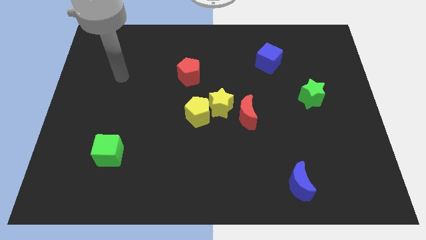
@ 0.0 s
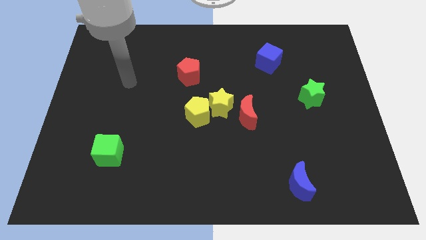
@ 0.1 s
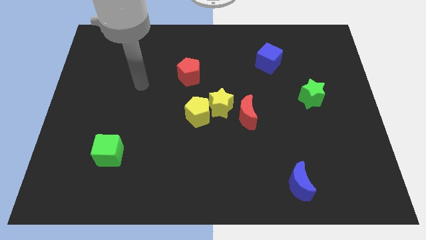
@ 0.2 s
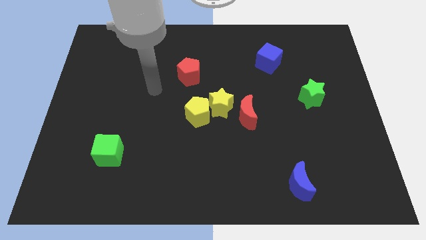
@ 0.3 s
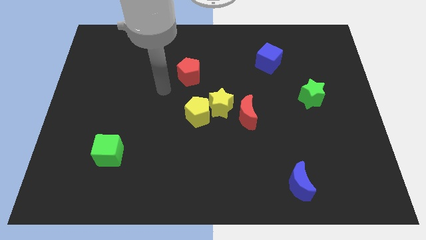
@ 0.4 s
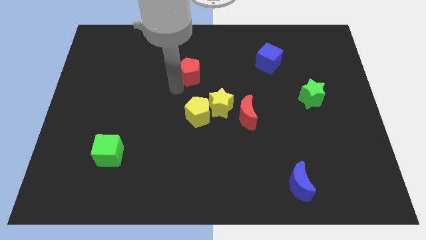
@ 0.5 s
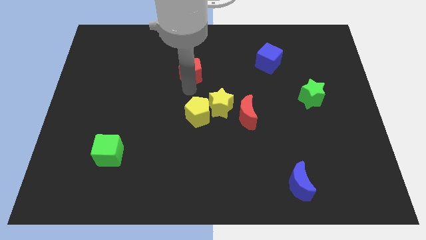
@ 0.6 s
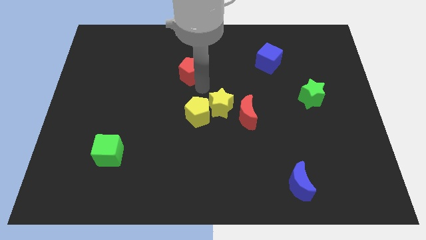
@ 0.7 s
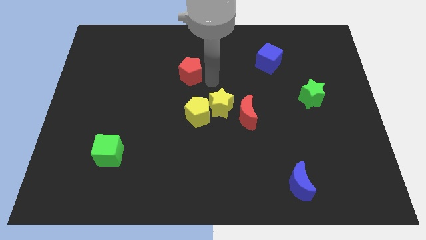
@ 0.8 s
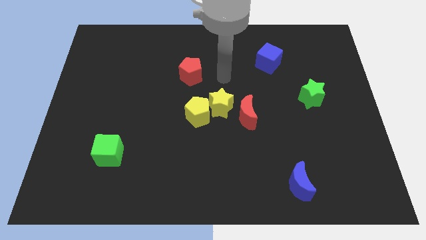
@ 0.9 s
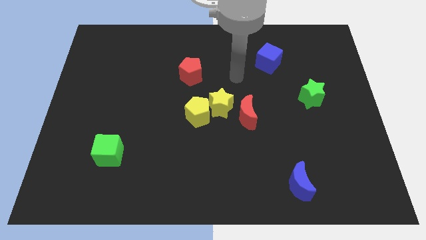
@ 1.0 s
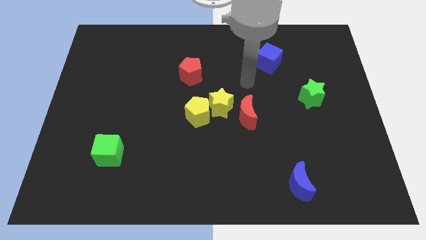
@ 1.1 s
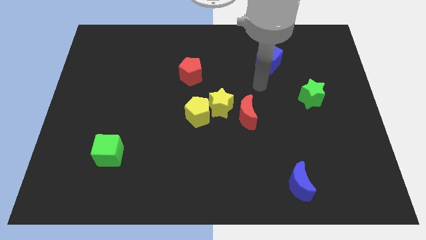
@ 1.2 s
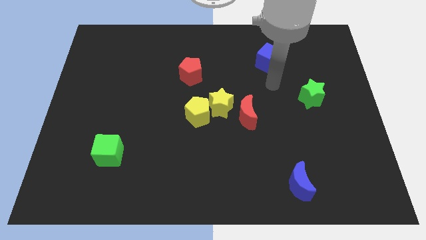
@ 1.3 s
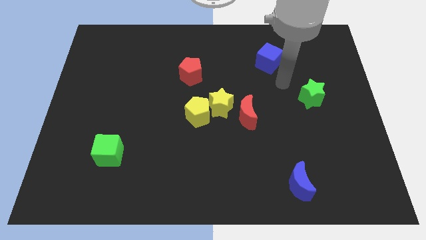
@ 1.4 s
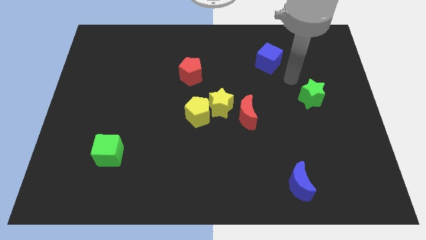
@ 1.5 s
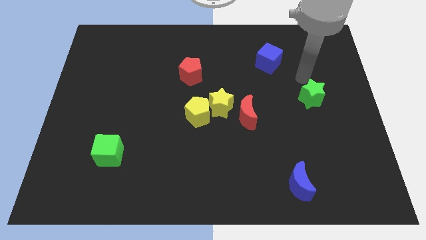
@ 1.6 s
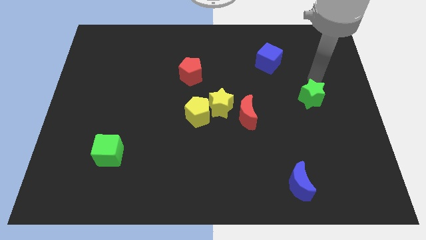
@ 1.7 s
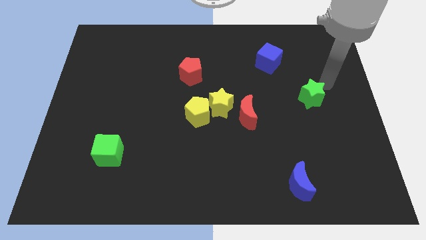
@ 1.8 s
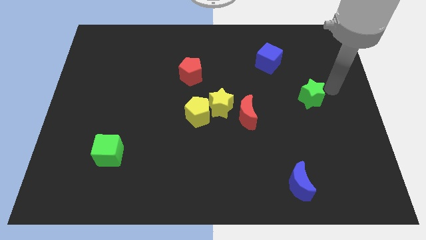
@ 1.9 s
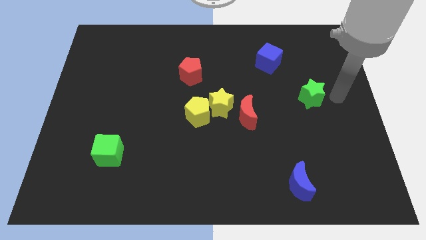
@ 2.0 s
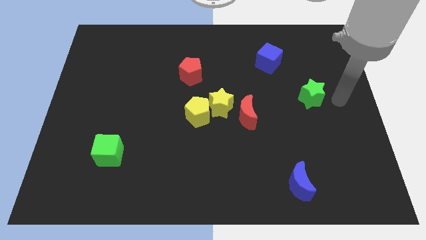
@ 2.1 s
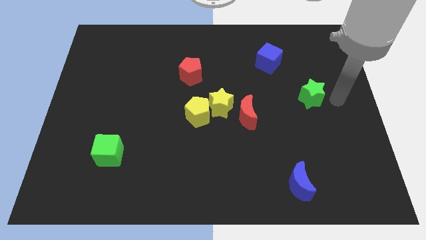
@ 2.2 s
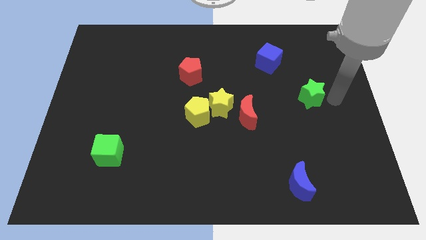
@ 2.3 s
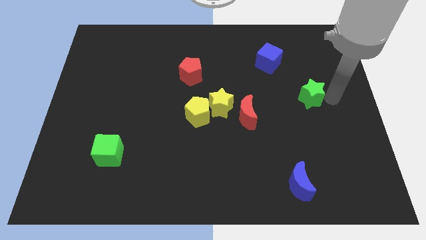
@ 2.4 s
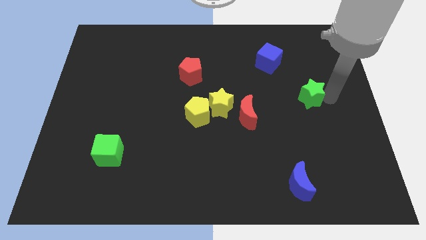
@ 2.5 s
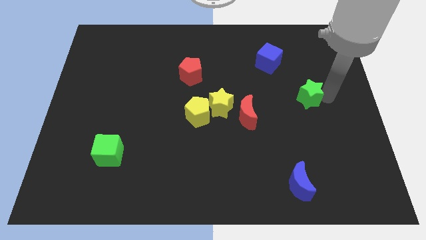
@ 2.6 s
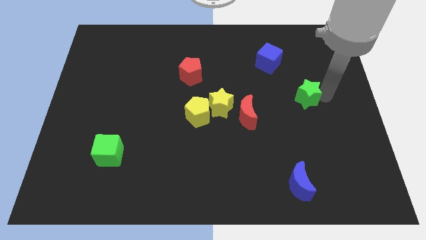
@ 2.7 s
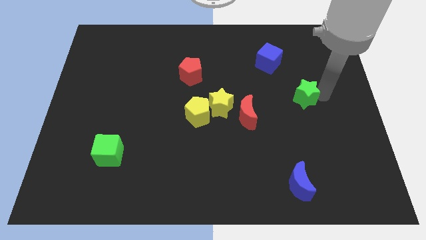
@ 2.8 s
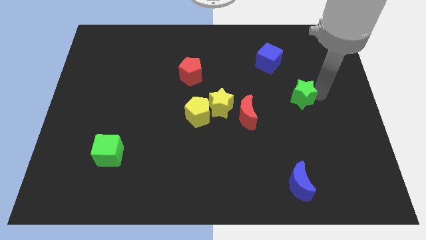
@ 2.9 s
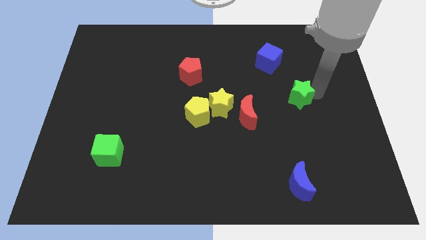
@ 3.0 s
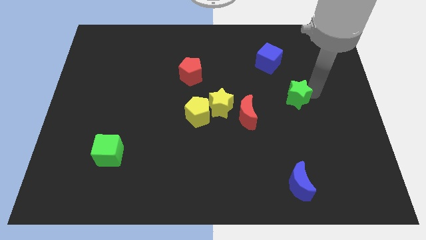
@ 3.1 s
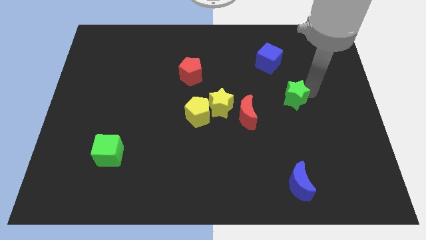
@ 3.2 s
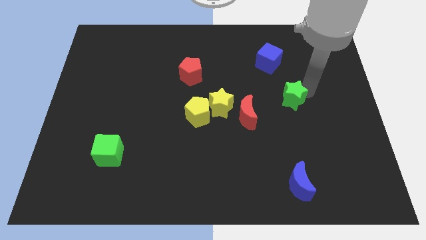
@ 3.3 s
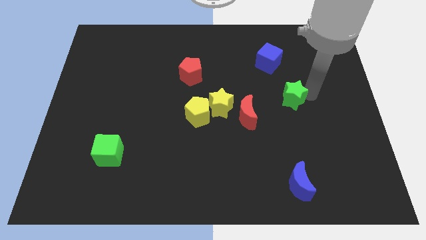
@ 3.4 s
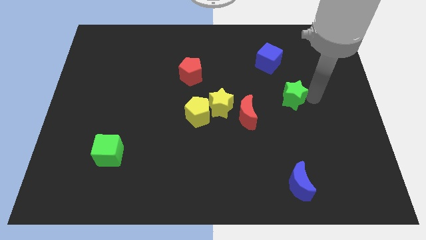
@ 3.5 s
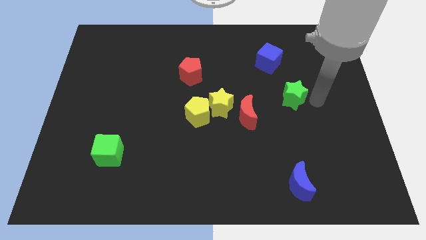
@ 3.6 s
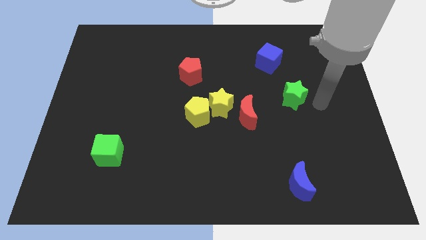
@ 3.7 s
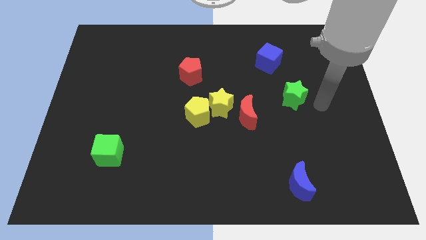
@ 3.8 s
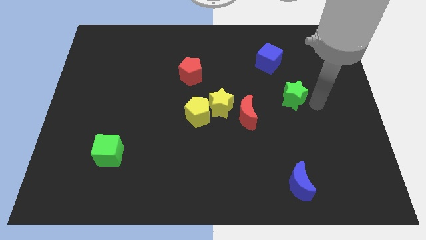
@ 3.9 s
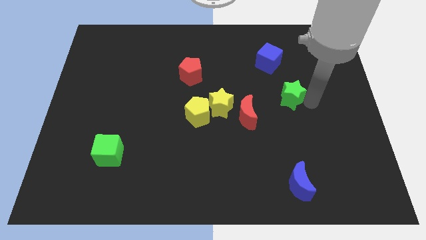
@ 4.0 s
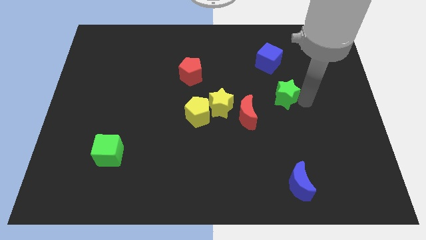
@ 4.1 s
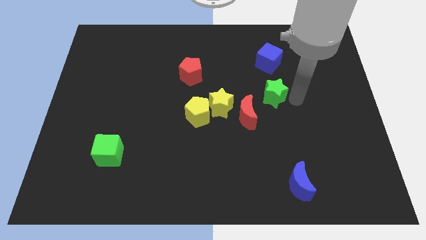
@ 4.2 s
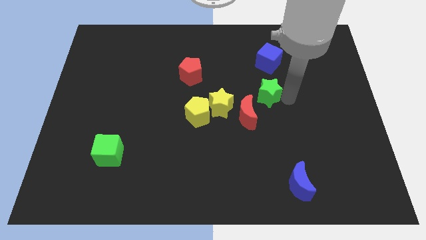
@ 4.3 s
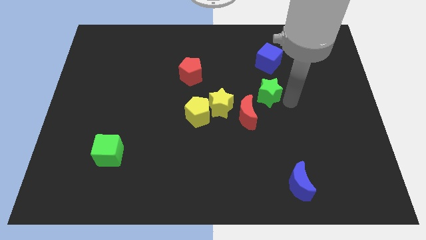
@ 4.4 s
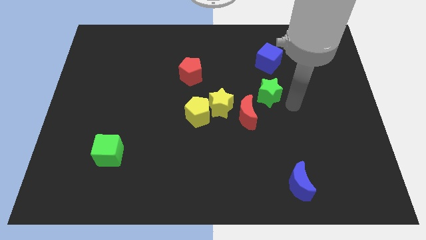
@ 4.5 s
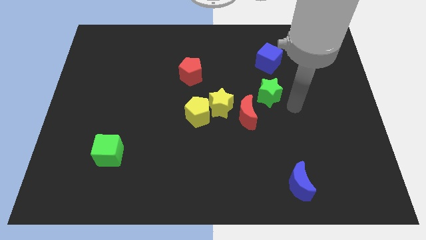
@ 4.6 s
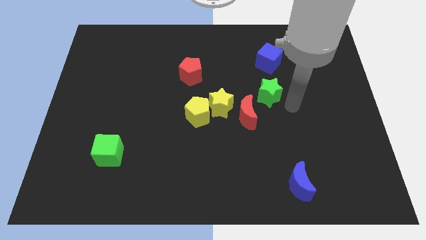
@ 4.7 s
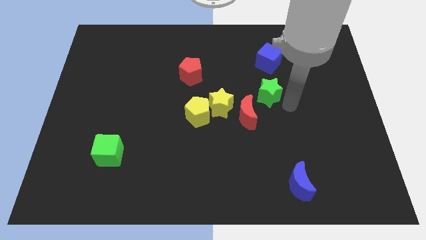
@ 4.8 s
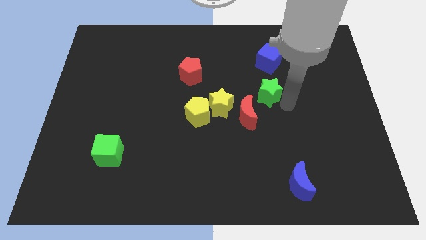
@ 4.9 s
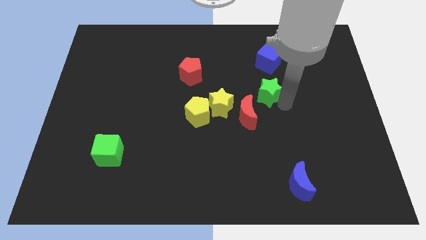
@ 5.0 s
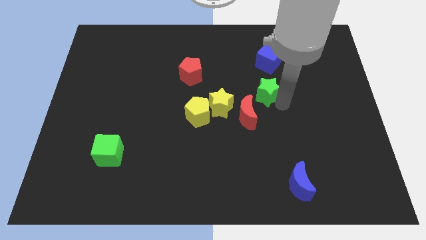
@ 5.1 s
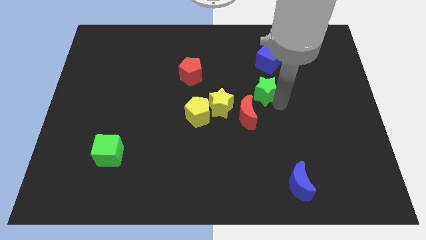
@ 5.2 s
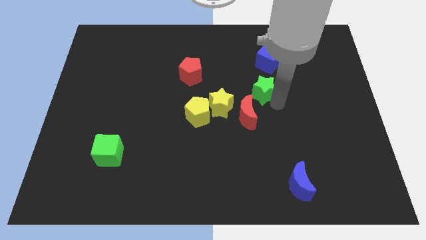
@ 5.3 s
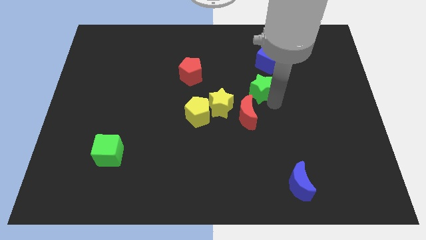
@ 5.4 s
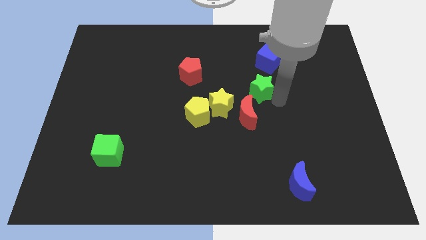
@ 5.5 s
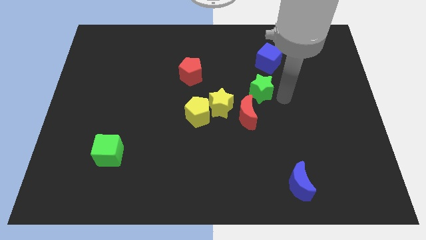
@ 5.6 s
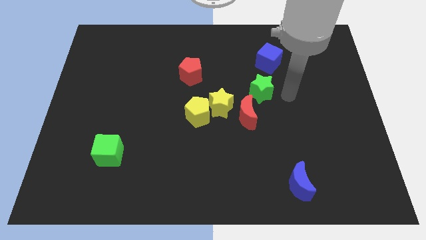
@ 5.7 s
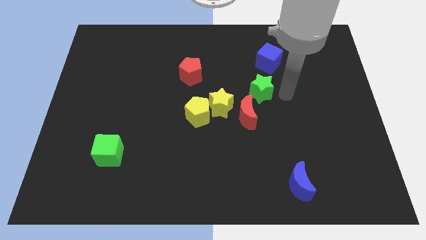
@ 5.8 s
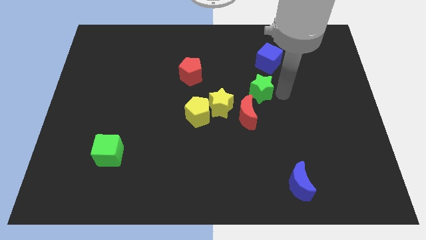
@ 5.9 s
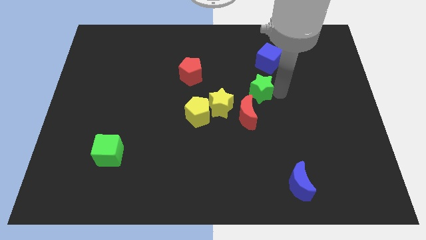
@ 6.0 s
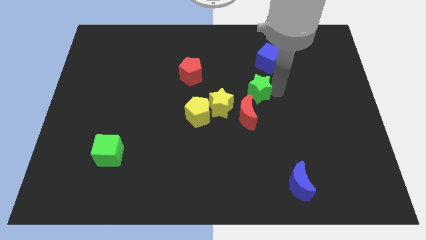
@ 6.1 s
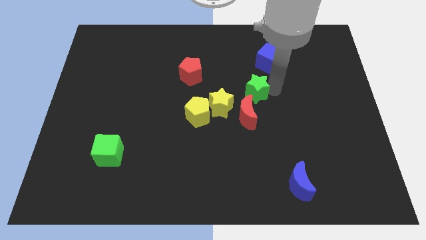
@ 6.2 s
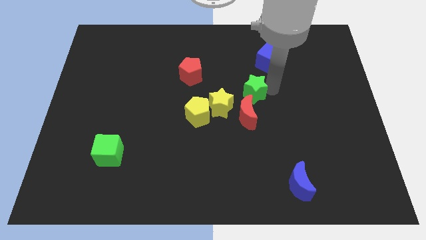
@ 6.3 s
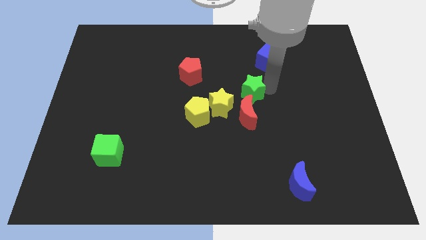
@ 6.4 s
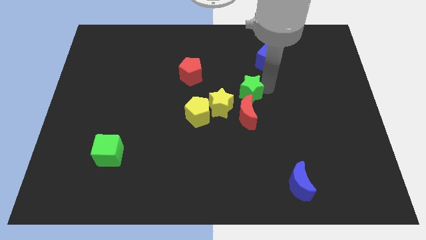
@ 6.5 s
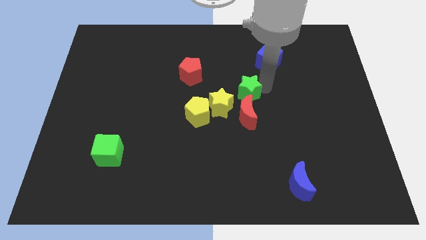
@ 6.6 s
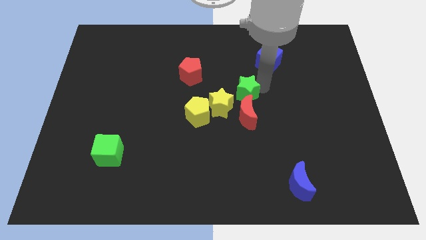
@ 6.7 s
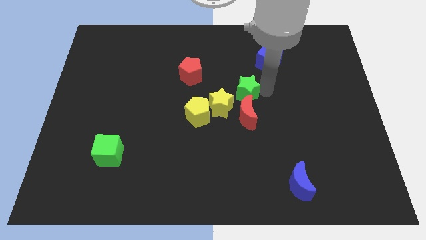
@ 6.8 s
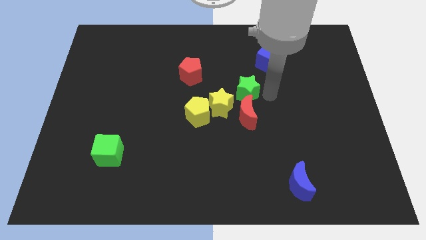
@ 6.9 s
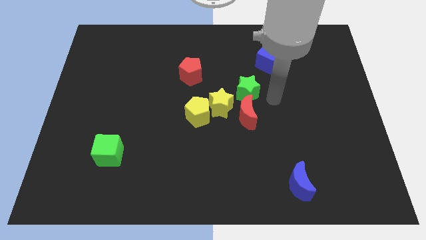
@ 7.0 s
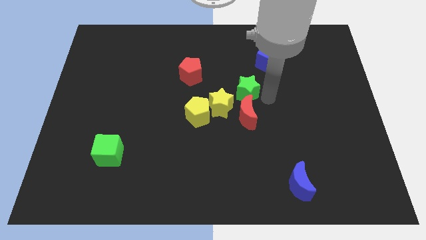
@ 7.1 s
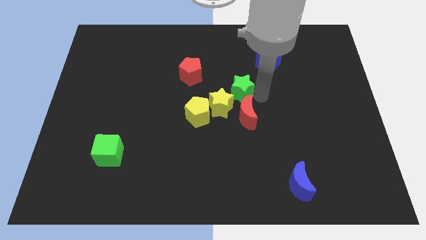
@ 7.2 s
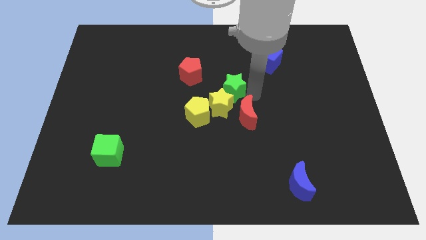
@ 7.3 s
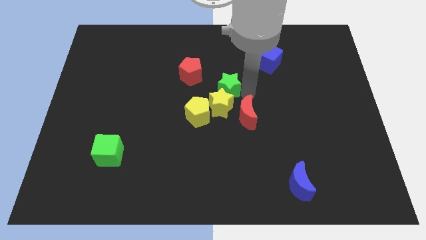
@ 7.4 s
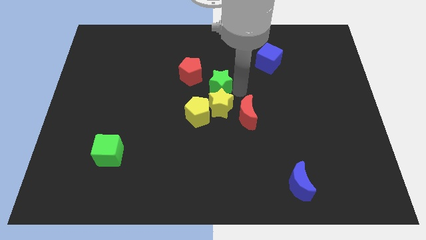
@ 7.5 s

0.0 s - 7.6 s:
slide the green star to the left

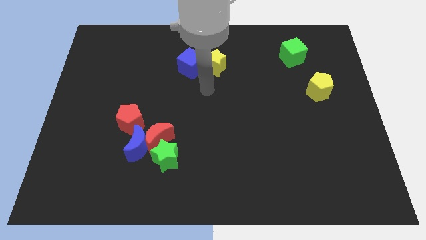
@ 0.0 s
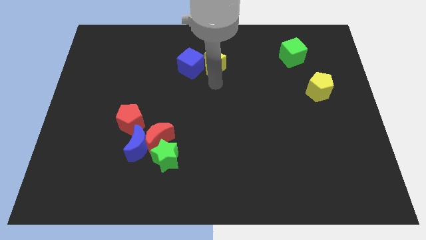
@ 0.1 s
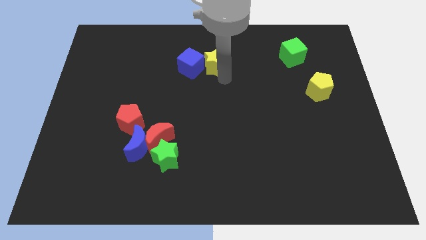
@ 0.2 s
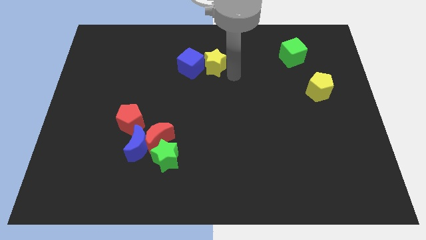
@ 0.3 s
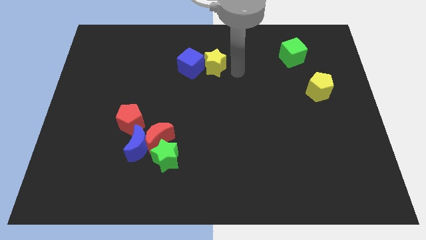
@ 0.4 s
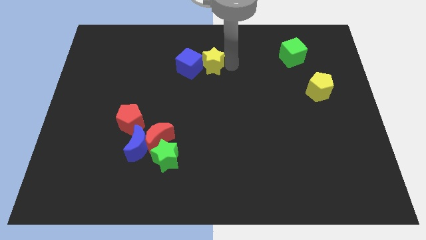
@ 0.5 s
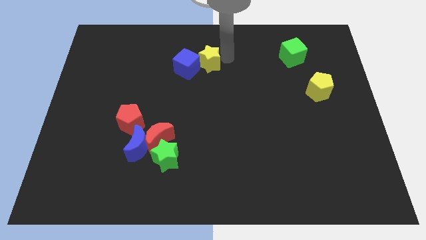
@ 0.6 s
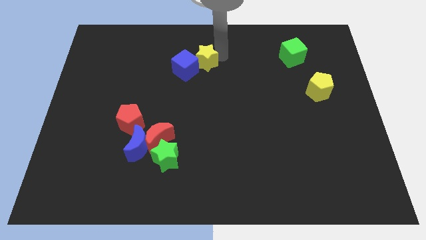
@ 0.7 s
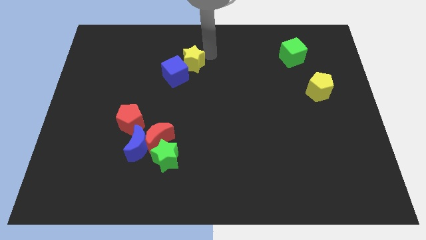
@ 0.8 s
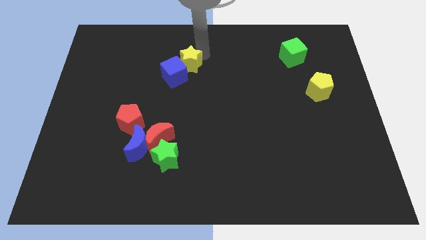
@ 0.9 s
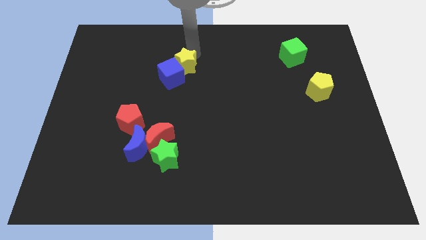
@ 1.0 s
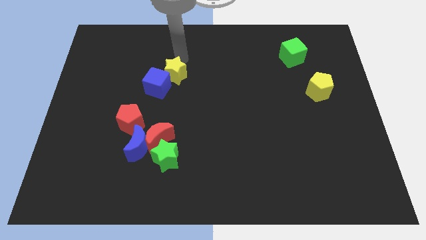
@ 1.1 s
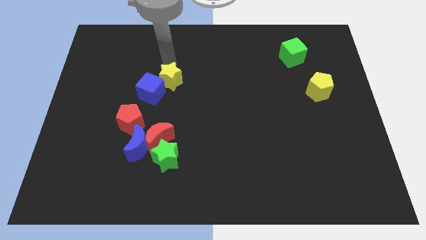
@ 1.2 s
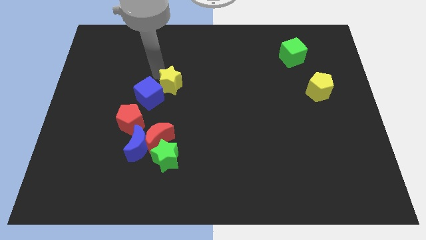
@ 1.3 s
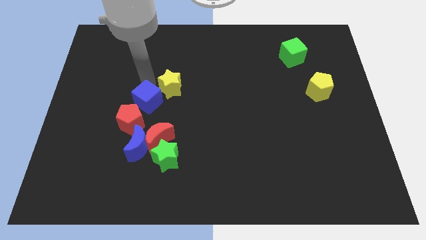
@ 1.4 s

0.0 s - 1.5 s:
move the blue cube slightly downwards
